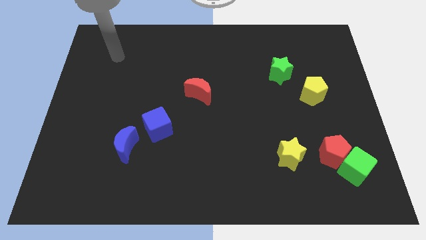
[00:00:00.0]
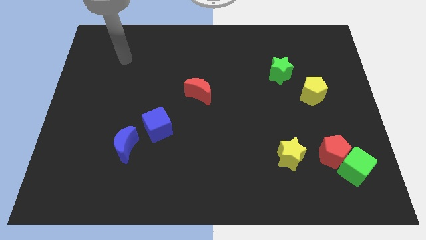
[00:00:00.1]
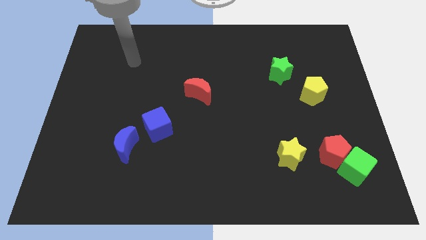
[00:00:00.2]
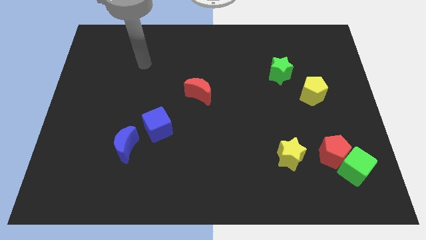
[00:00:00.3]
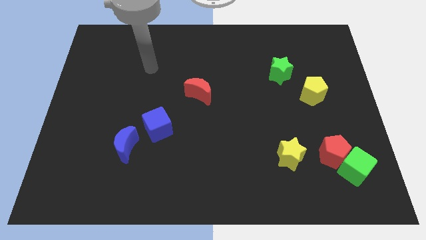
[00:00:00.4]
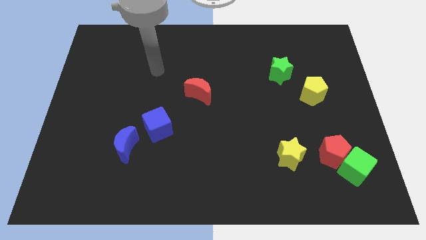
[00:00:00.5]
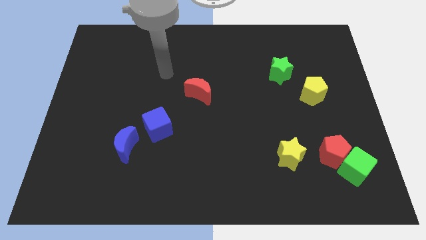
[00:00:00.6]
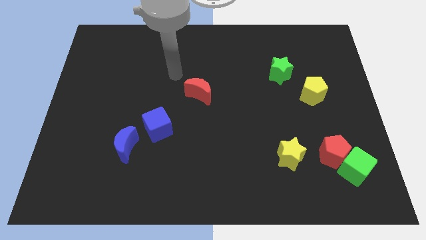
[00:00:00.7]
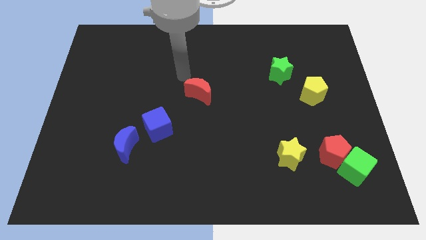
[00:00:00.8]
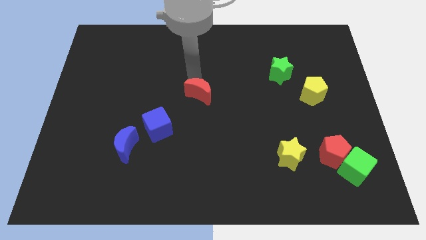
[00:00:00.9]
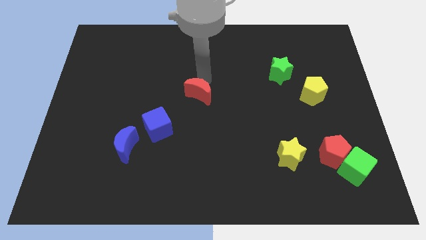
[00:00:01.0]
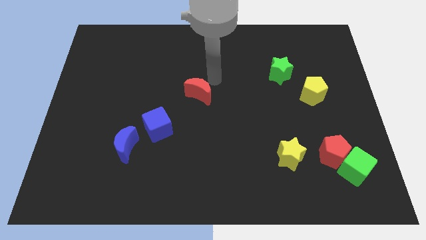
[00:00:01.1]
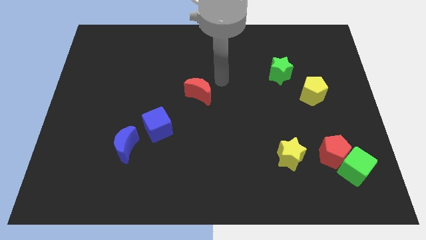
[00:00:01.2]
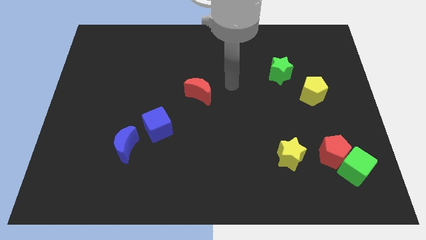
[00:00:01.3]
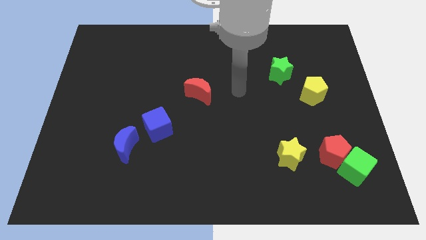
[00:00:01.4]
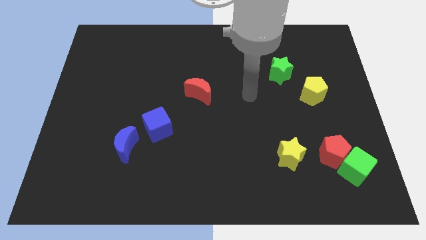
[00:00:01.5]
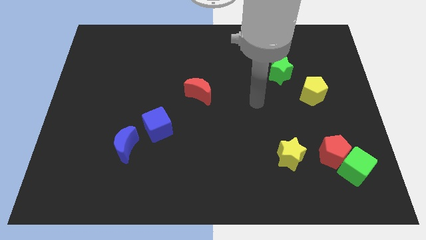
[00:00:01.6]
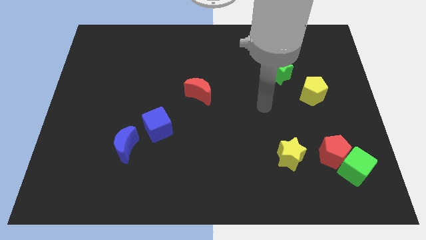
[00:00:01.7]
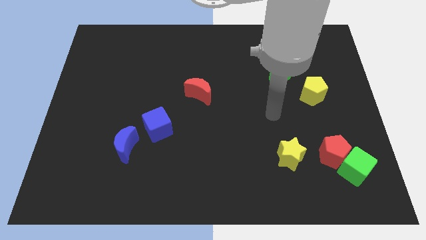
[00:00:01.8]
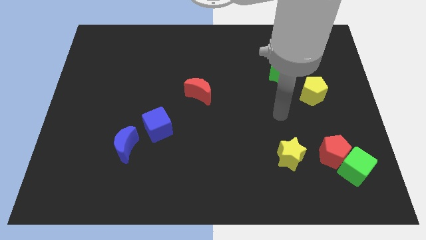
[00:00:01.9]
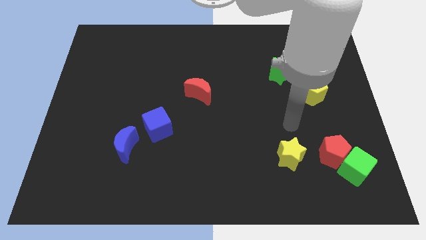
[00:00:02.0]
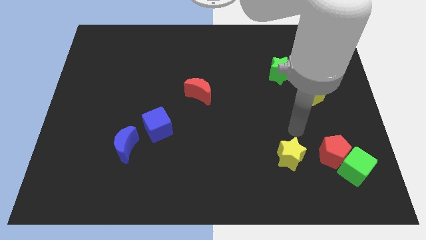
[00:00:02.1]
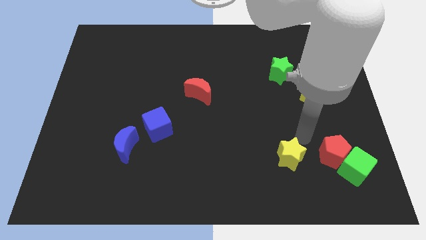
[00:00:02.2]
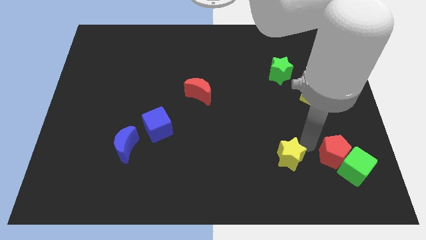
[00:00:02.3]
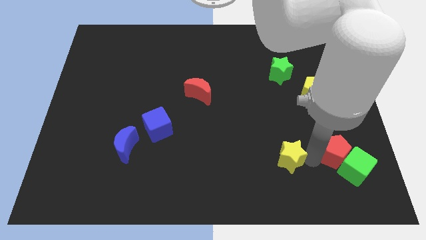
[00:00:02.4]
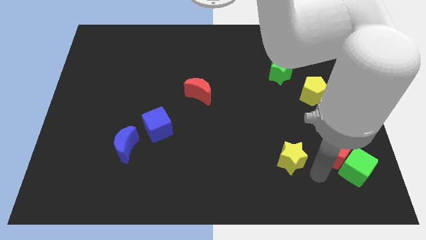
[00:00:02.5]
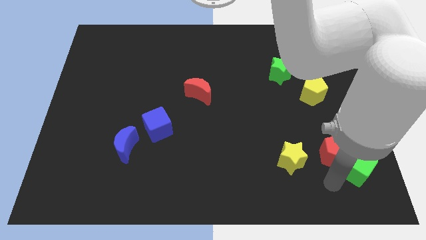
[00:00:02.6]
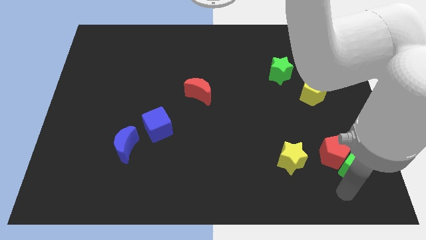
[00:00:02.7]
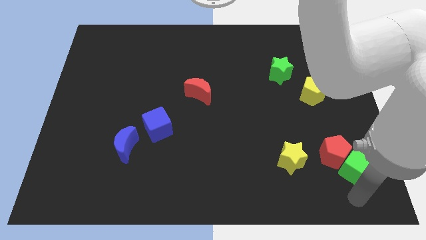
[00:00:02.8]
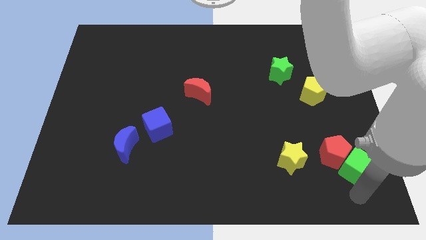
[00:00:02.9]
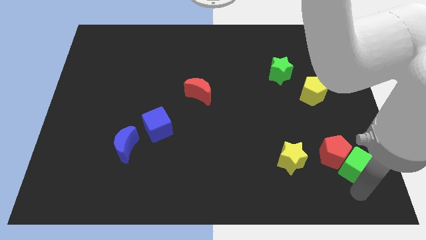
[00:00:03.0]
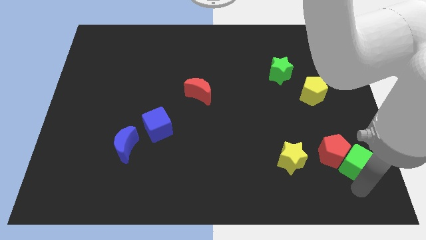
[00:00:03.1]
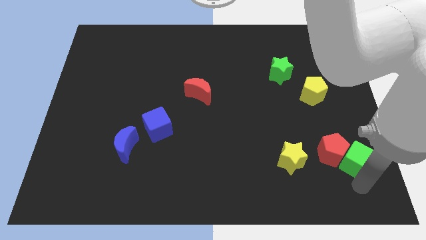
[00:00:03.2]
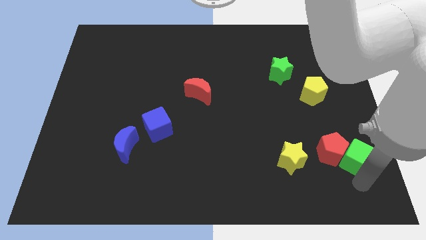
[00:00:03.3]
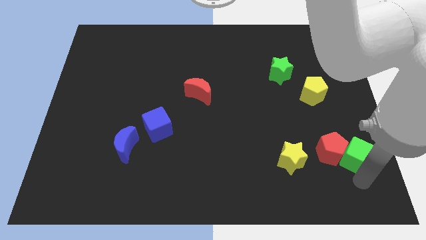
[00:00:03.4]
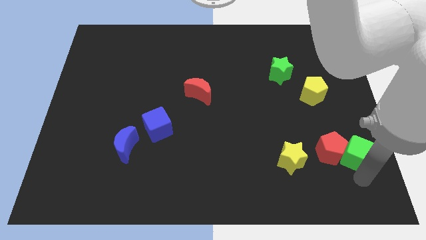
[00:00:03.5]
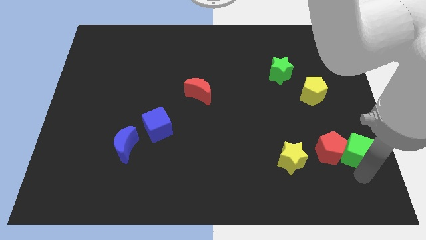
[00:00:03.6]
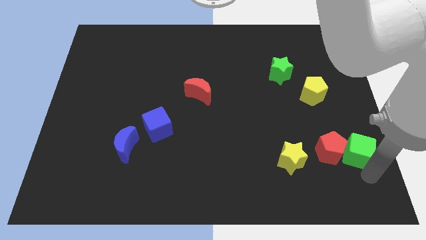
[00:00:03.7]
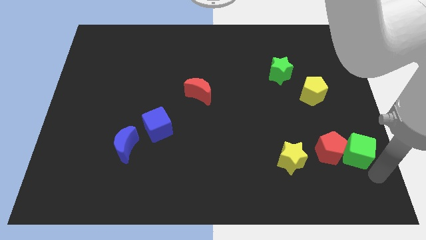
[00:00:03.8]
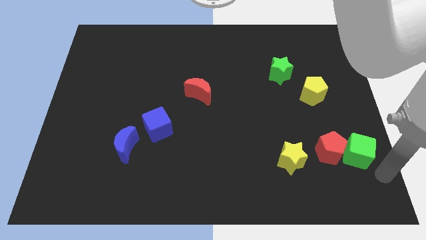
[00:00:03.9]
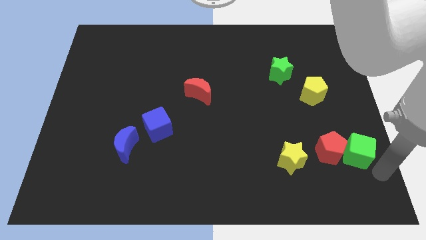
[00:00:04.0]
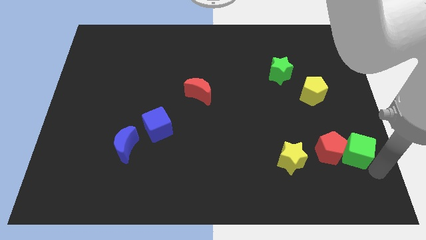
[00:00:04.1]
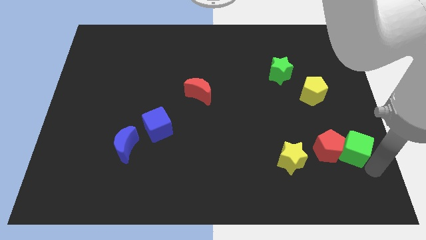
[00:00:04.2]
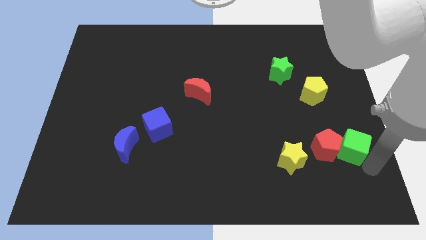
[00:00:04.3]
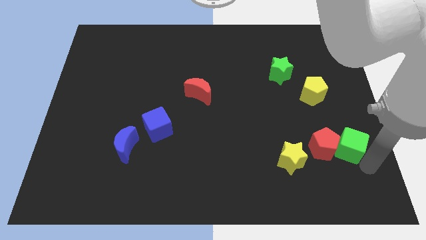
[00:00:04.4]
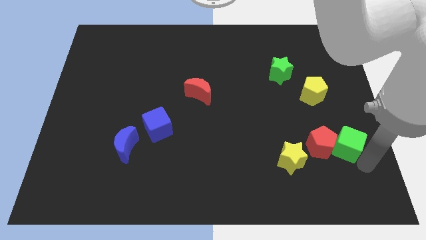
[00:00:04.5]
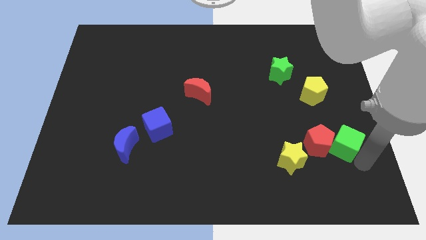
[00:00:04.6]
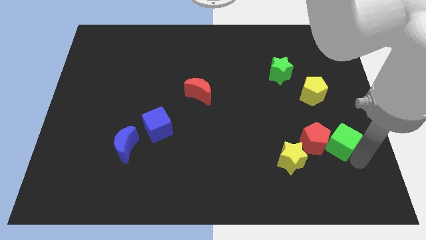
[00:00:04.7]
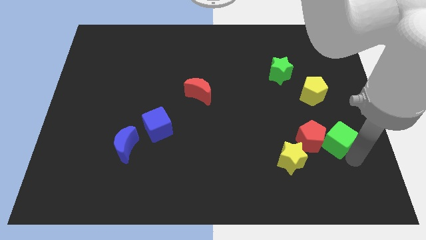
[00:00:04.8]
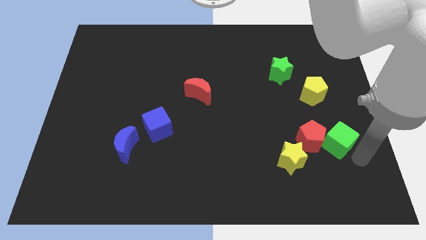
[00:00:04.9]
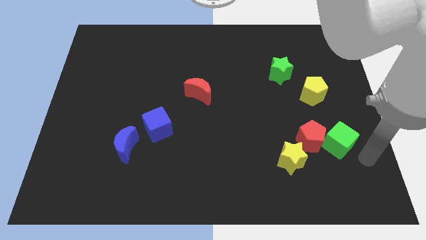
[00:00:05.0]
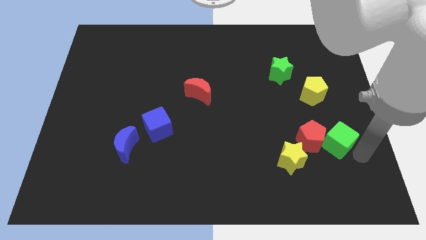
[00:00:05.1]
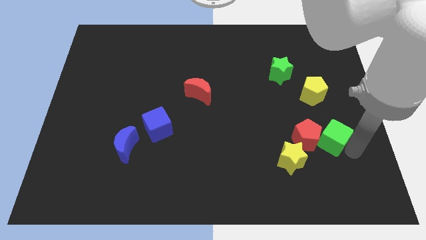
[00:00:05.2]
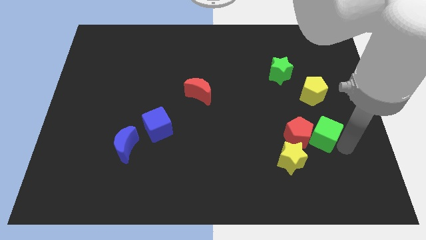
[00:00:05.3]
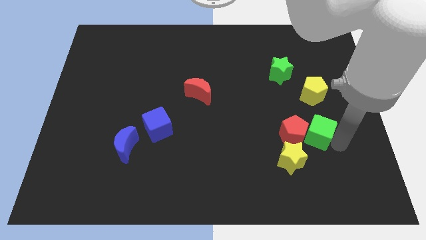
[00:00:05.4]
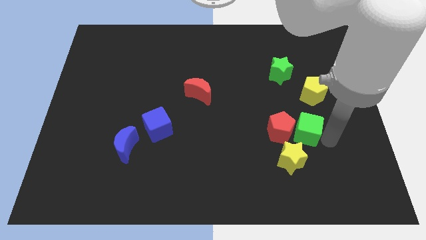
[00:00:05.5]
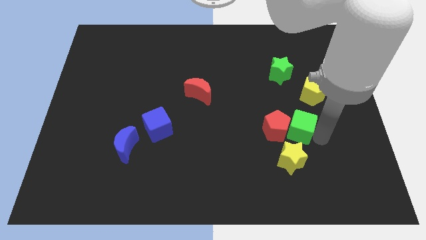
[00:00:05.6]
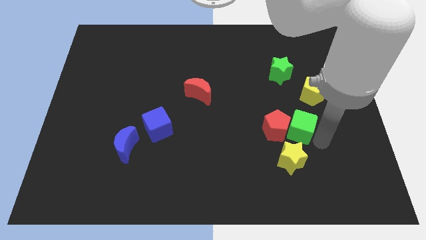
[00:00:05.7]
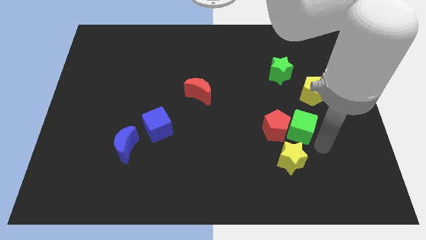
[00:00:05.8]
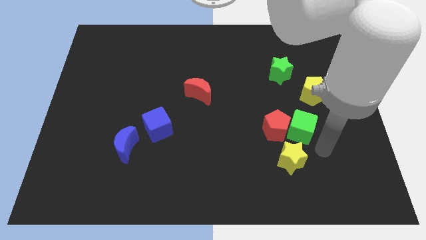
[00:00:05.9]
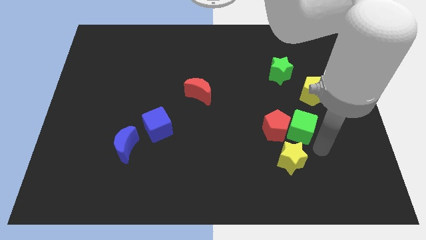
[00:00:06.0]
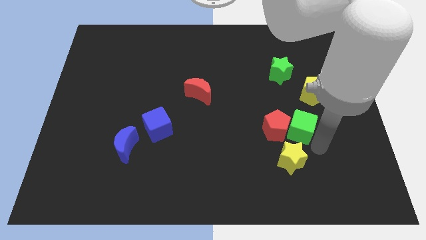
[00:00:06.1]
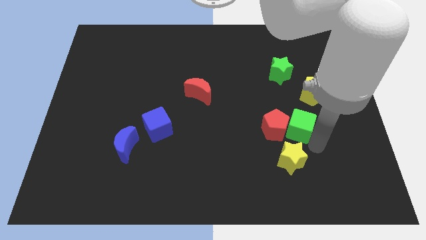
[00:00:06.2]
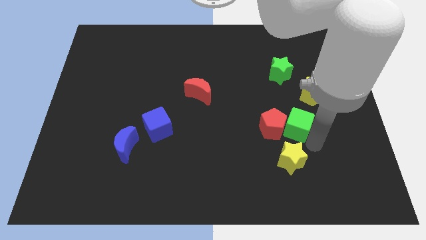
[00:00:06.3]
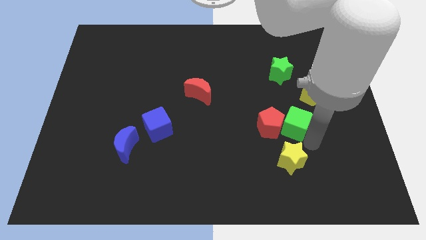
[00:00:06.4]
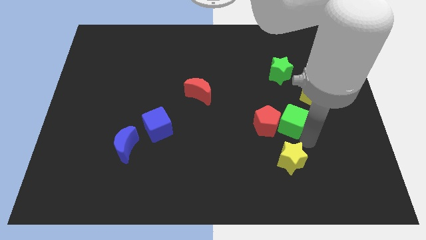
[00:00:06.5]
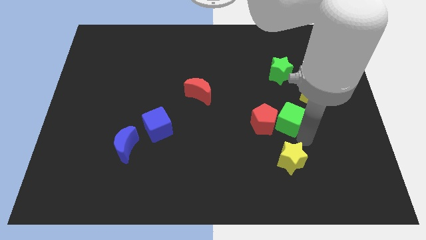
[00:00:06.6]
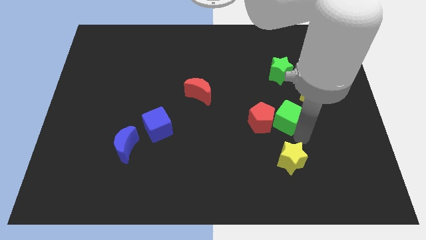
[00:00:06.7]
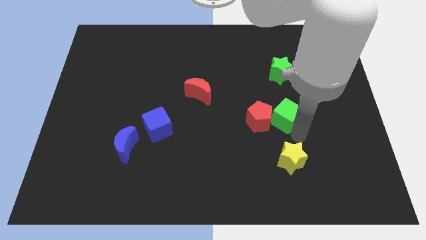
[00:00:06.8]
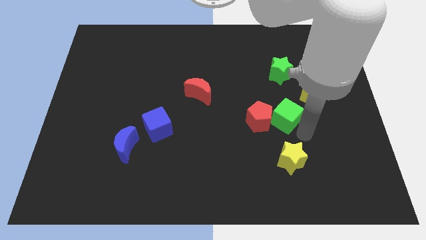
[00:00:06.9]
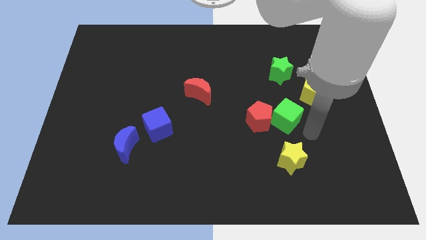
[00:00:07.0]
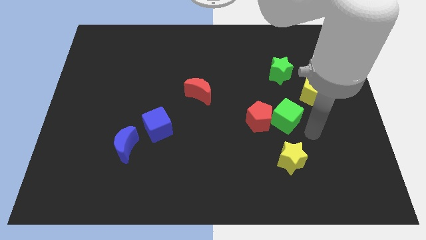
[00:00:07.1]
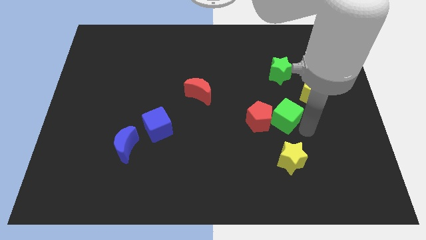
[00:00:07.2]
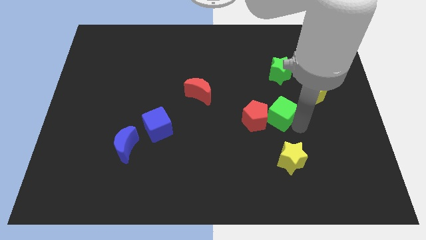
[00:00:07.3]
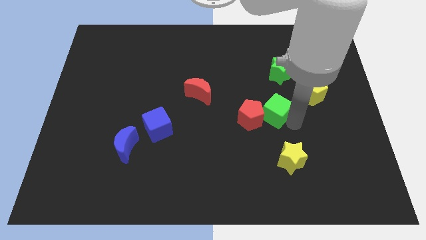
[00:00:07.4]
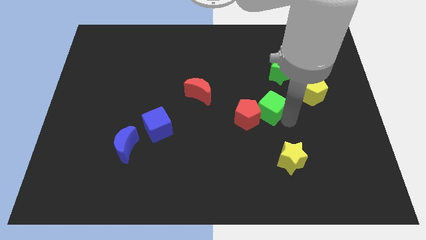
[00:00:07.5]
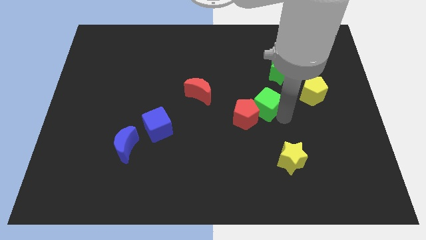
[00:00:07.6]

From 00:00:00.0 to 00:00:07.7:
move the green cube to the center of the board

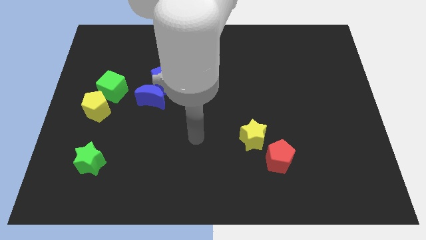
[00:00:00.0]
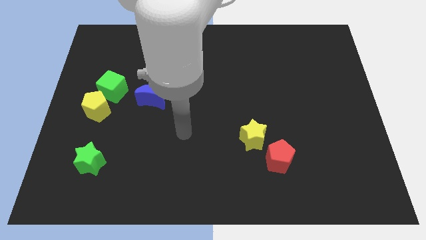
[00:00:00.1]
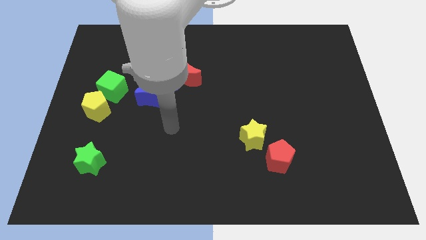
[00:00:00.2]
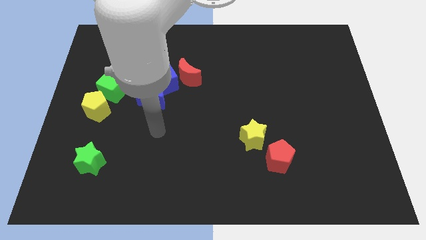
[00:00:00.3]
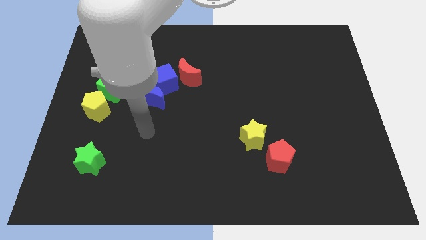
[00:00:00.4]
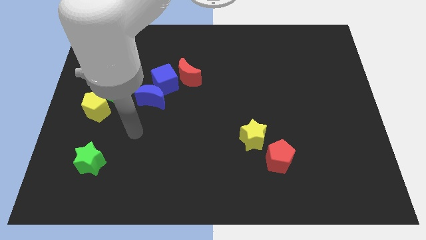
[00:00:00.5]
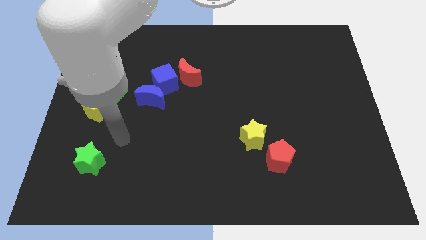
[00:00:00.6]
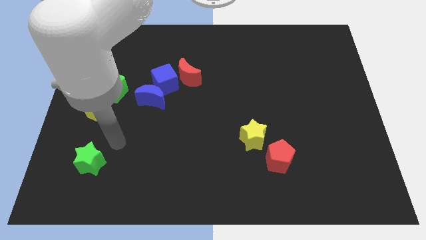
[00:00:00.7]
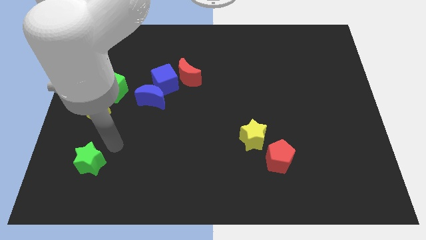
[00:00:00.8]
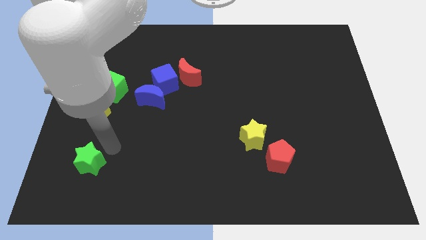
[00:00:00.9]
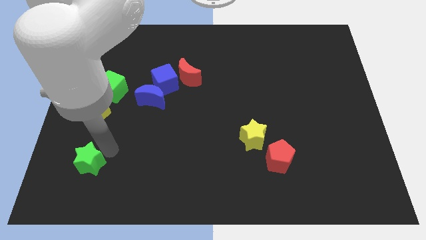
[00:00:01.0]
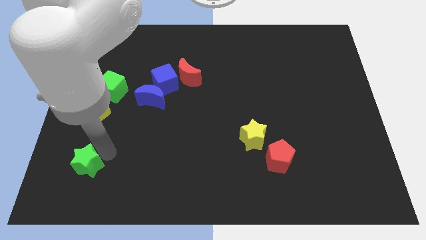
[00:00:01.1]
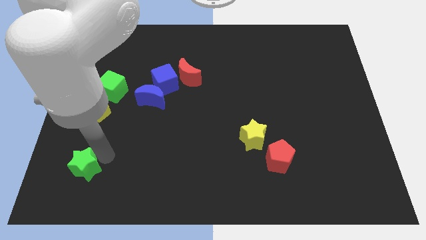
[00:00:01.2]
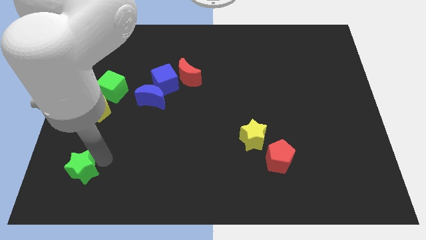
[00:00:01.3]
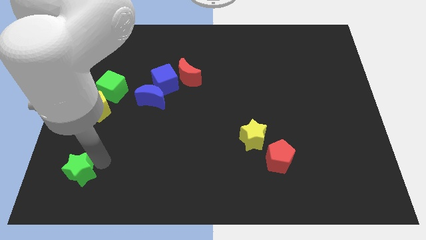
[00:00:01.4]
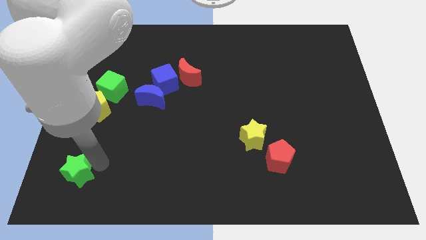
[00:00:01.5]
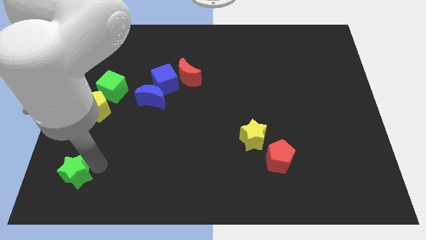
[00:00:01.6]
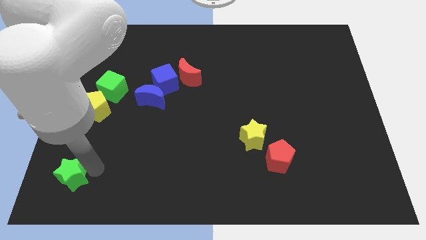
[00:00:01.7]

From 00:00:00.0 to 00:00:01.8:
put the green star to the lower left corner
